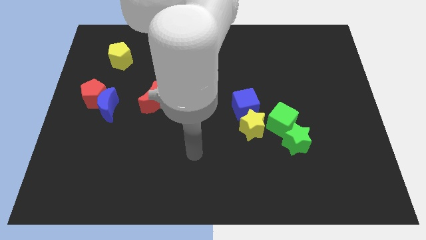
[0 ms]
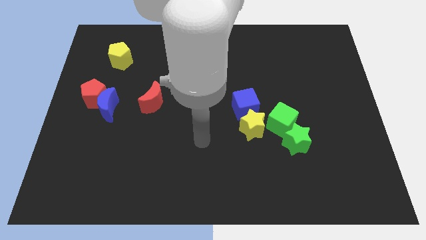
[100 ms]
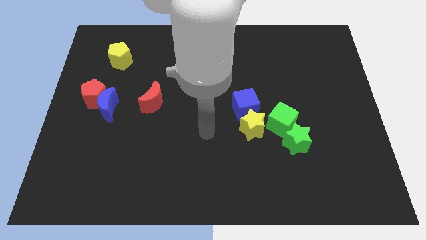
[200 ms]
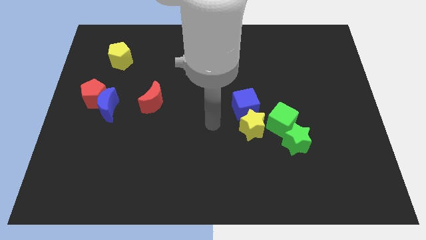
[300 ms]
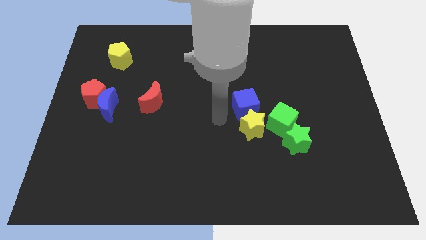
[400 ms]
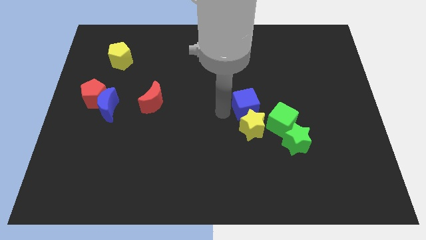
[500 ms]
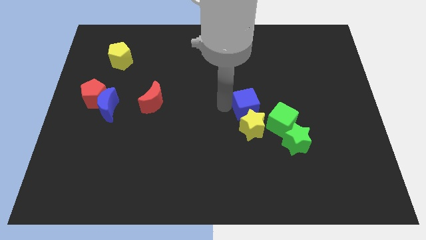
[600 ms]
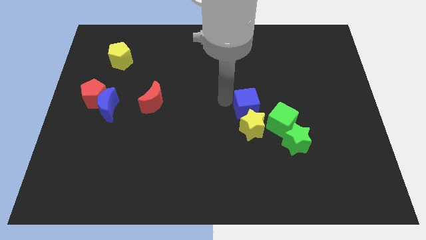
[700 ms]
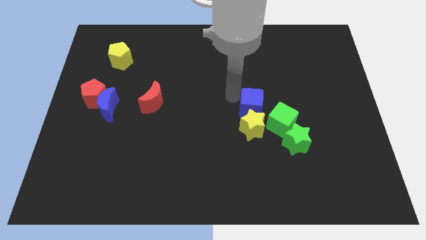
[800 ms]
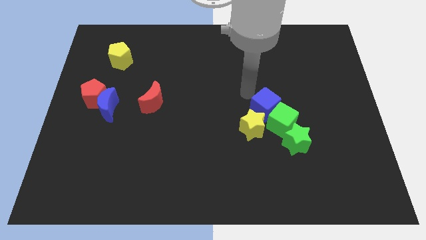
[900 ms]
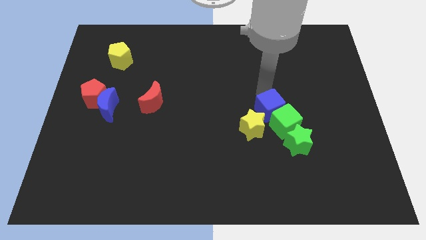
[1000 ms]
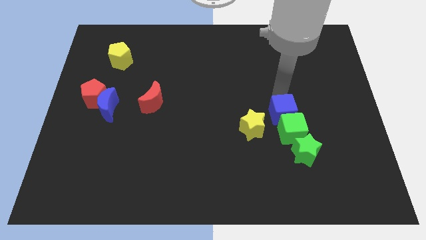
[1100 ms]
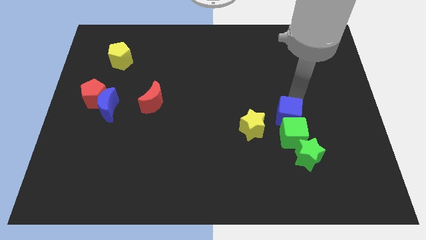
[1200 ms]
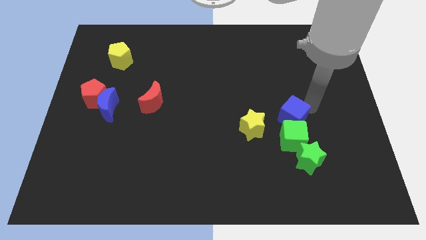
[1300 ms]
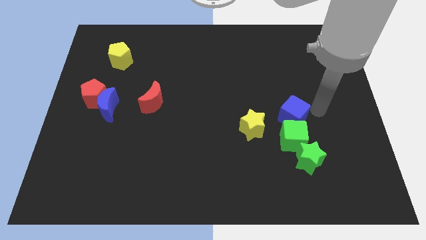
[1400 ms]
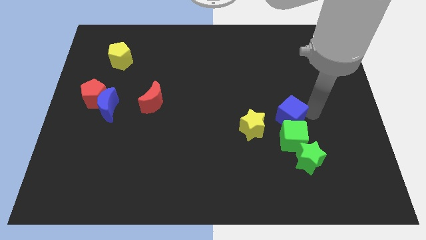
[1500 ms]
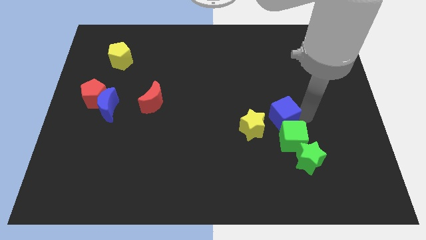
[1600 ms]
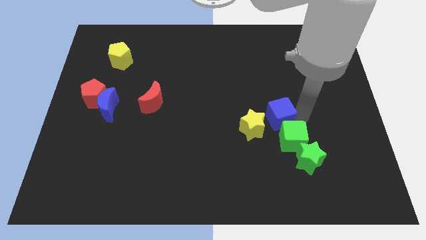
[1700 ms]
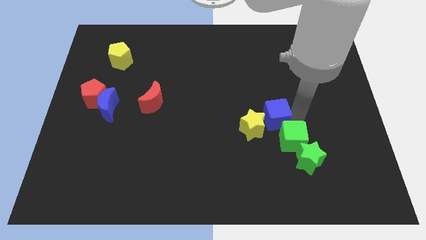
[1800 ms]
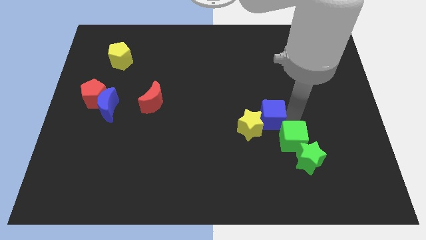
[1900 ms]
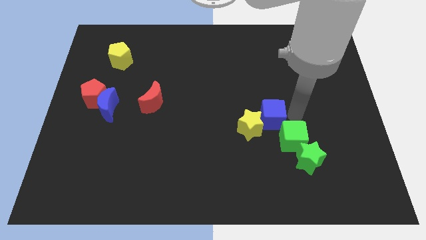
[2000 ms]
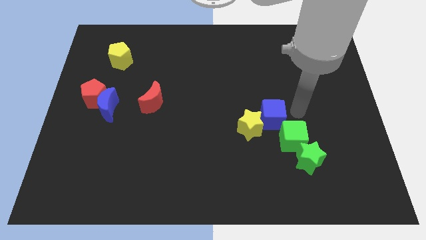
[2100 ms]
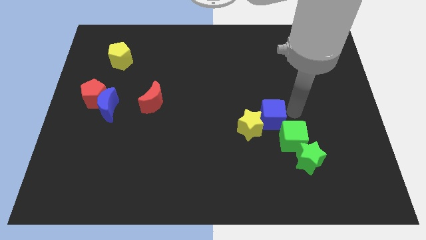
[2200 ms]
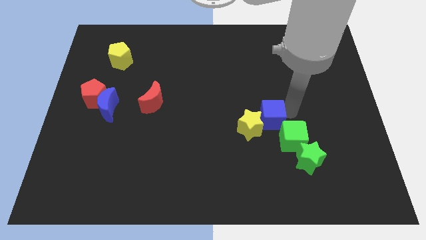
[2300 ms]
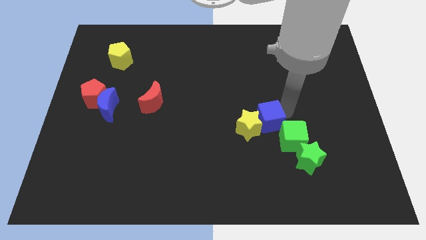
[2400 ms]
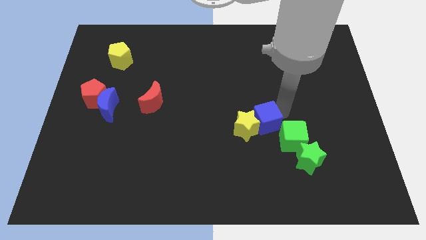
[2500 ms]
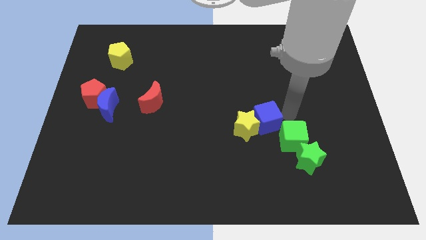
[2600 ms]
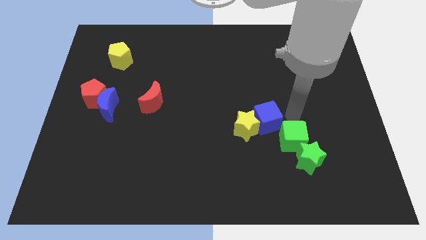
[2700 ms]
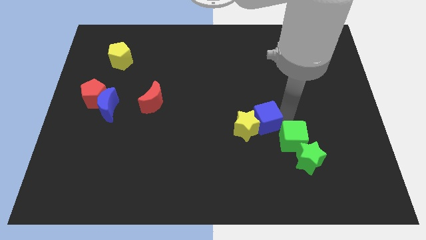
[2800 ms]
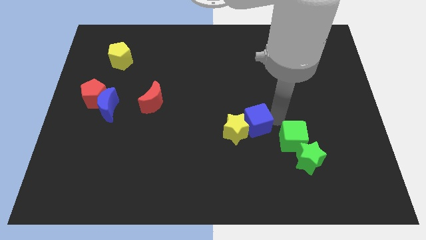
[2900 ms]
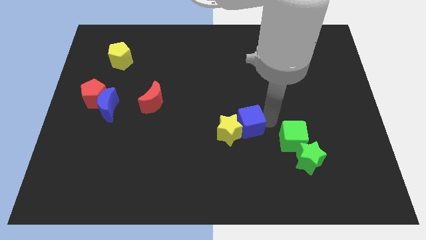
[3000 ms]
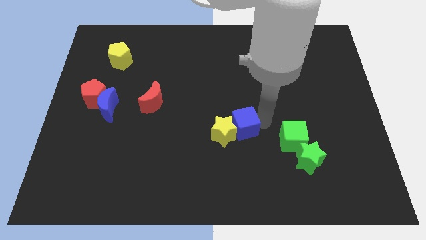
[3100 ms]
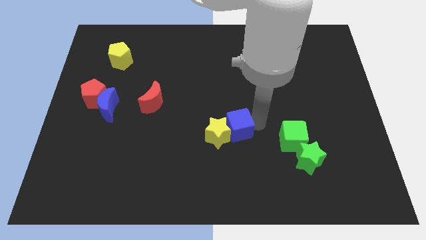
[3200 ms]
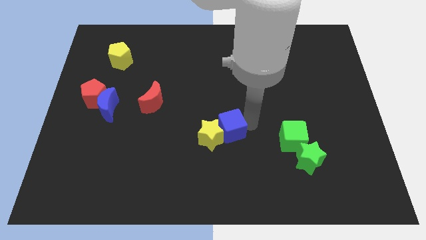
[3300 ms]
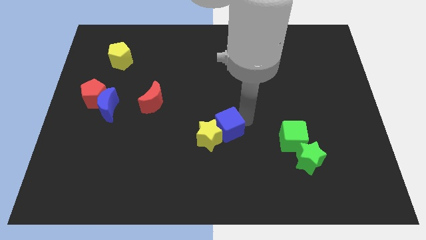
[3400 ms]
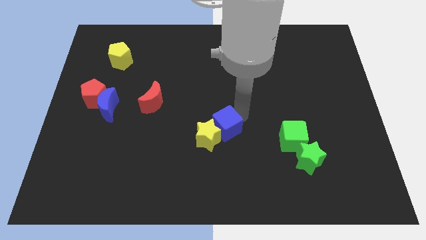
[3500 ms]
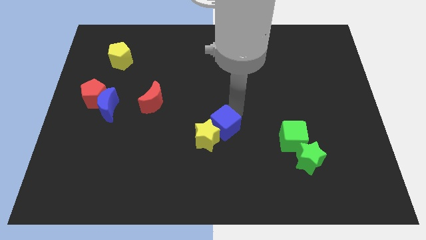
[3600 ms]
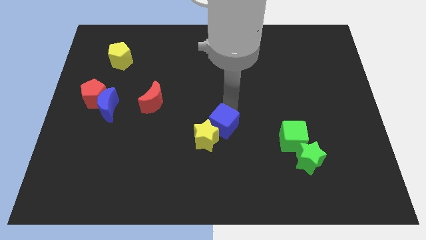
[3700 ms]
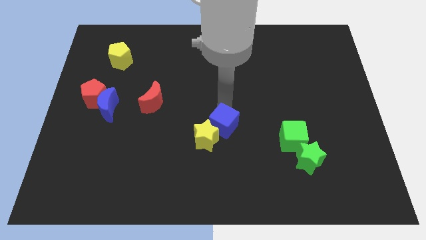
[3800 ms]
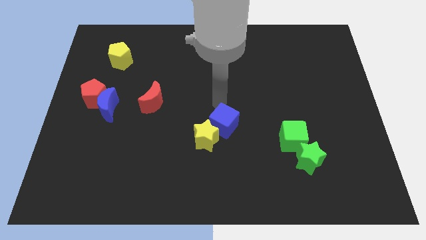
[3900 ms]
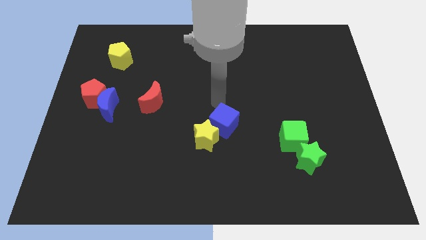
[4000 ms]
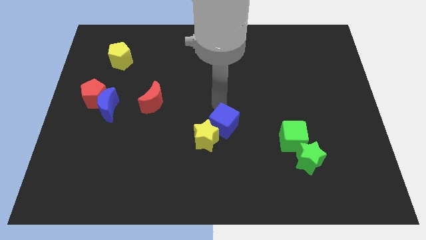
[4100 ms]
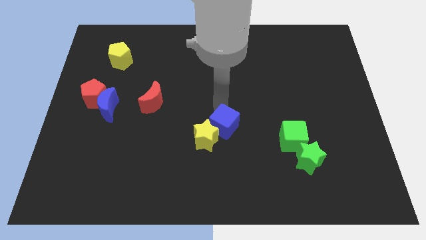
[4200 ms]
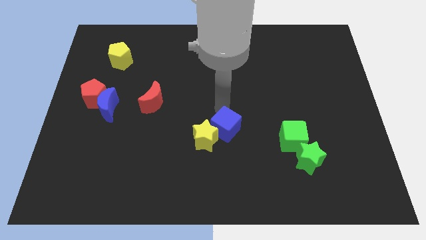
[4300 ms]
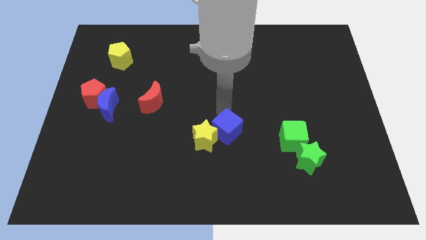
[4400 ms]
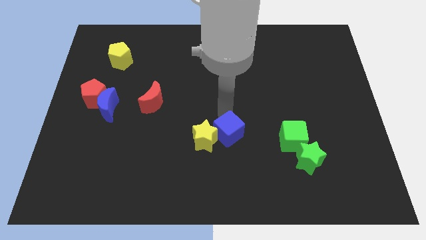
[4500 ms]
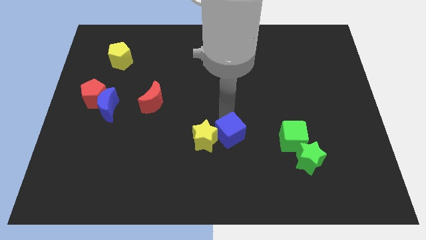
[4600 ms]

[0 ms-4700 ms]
move the blue cube downwards a bit

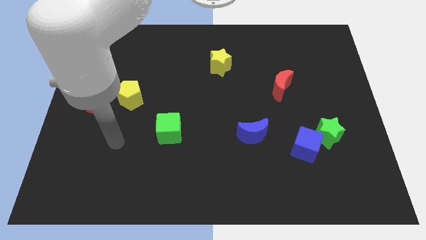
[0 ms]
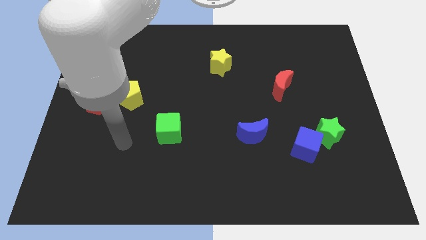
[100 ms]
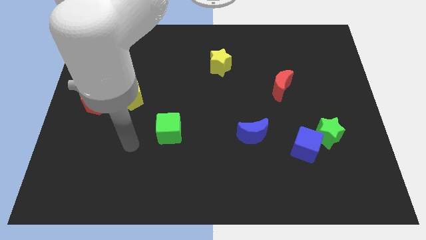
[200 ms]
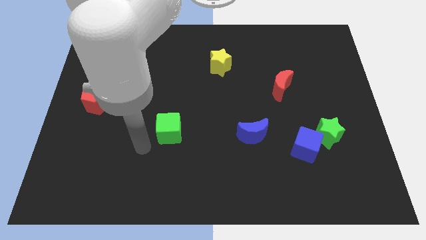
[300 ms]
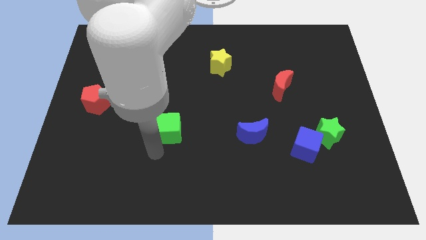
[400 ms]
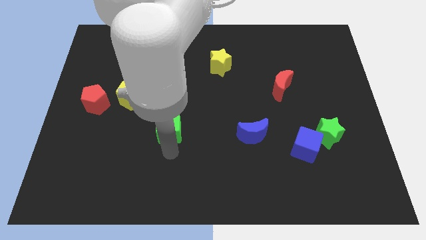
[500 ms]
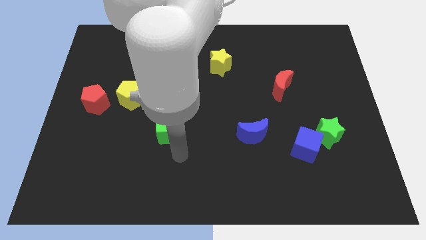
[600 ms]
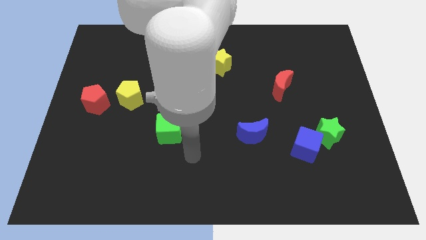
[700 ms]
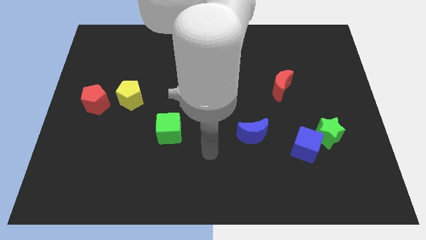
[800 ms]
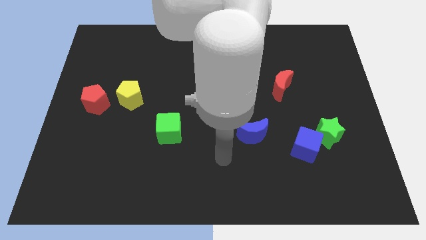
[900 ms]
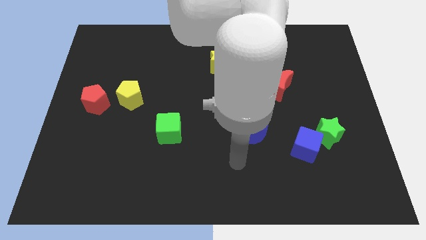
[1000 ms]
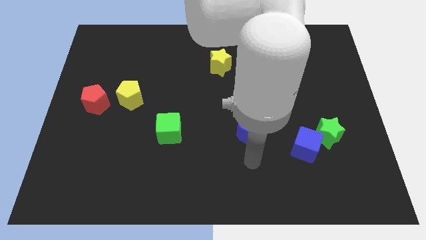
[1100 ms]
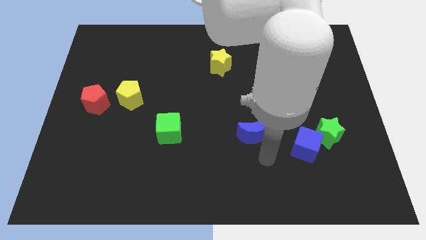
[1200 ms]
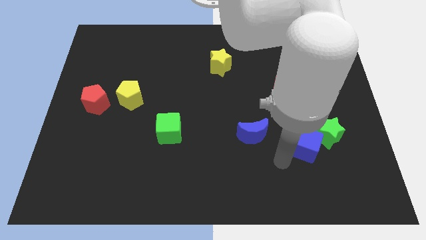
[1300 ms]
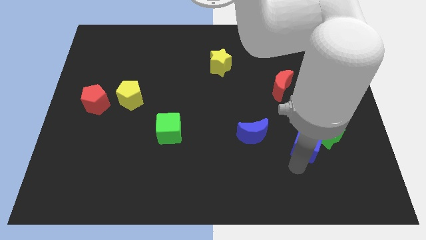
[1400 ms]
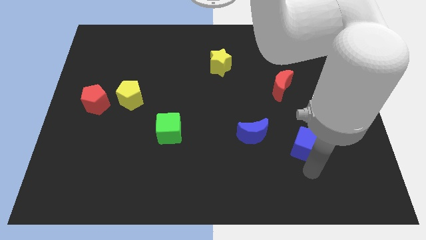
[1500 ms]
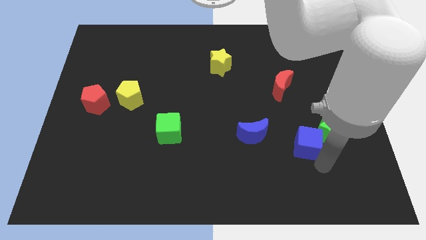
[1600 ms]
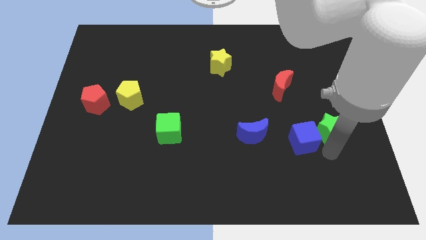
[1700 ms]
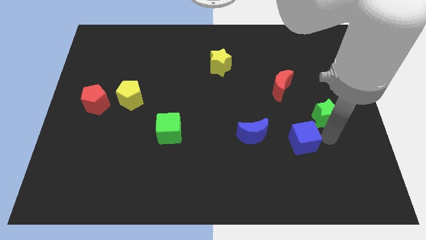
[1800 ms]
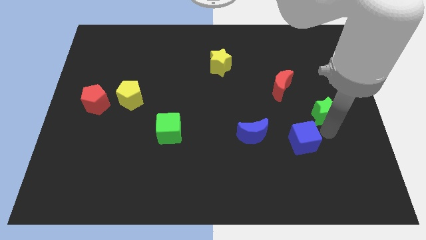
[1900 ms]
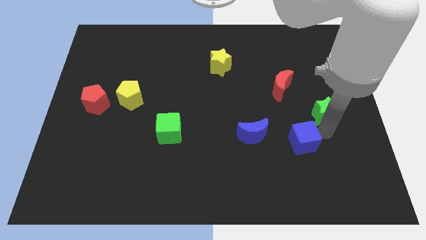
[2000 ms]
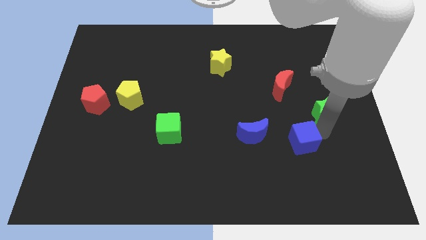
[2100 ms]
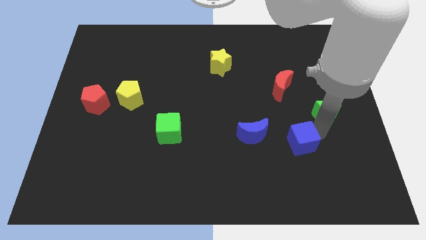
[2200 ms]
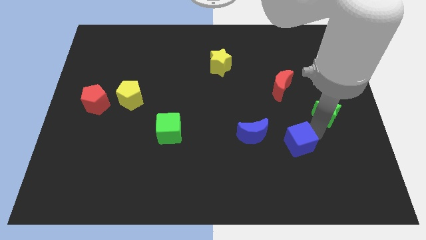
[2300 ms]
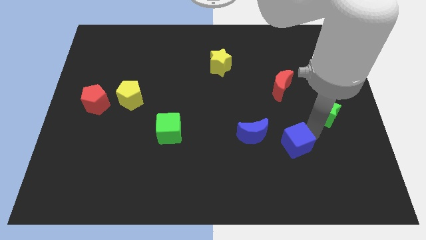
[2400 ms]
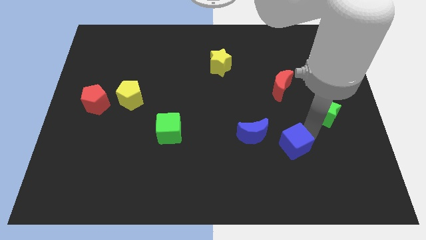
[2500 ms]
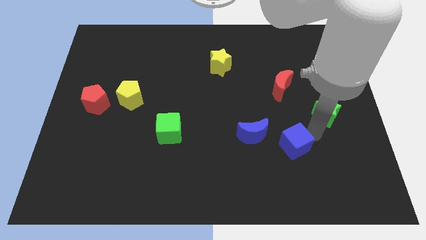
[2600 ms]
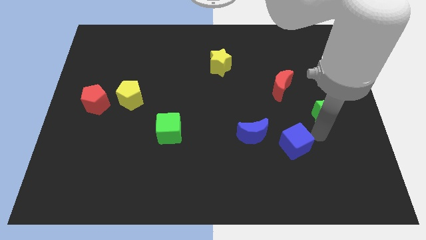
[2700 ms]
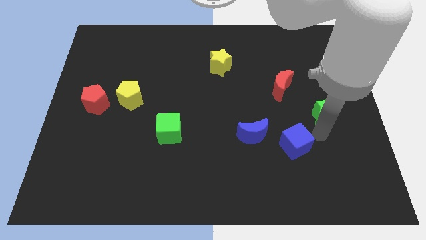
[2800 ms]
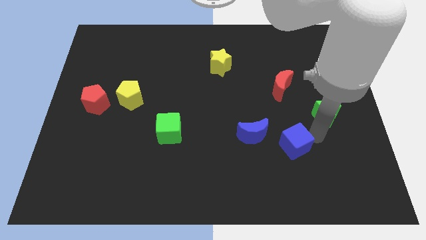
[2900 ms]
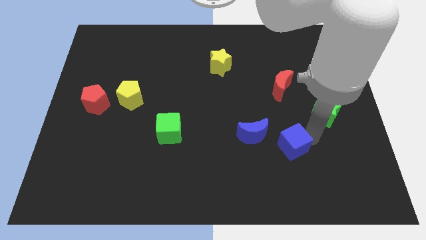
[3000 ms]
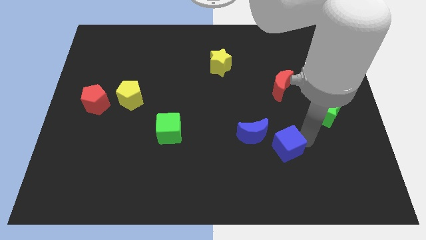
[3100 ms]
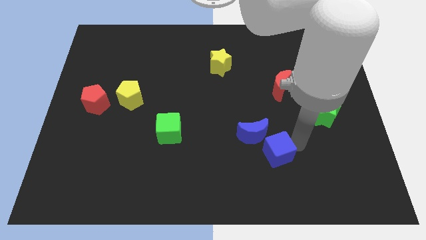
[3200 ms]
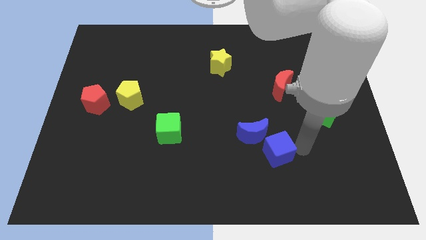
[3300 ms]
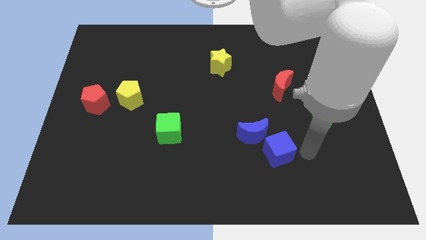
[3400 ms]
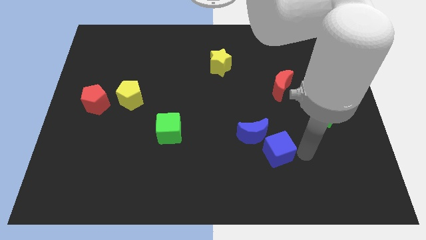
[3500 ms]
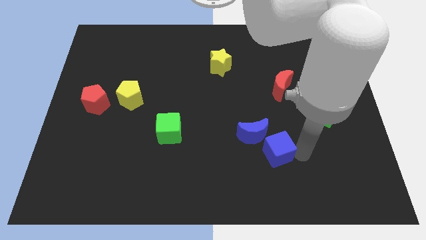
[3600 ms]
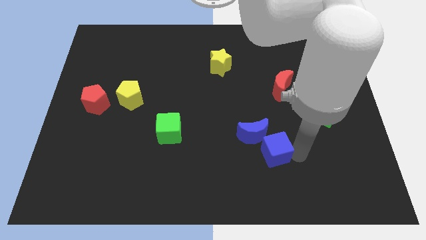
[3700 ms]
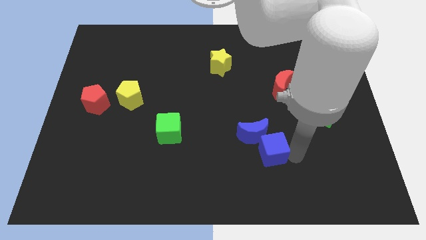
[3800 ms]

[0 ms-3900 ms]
slightly move the blue cube left

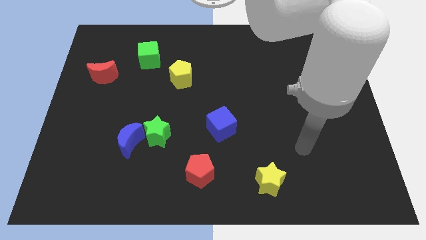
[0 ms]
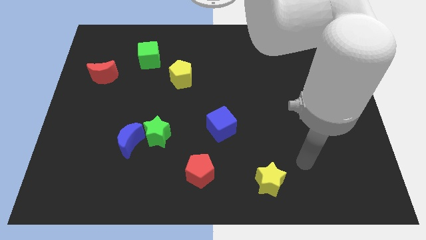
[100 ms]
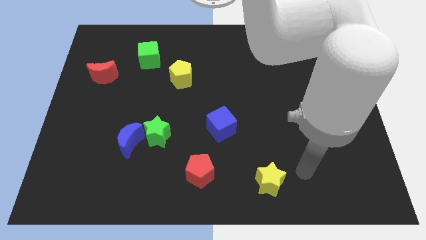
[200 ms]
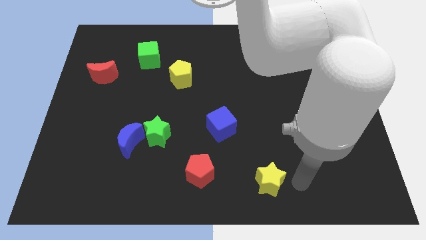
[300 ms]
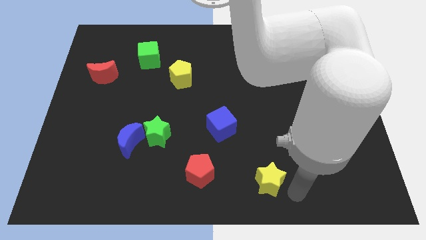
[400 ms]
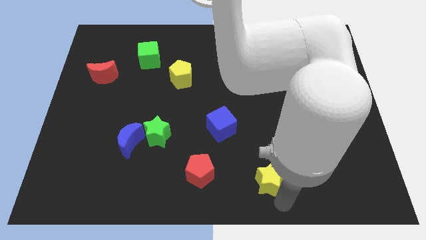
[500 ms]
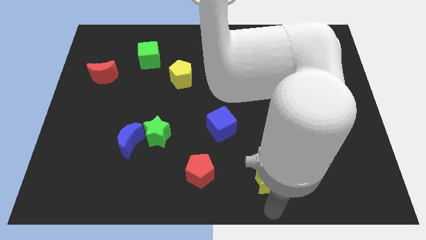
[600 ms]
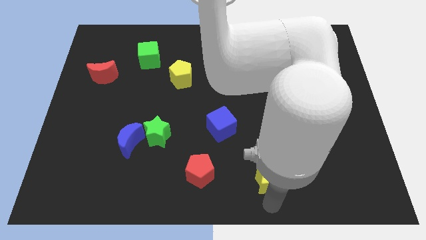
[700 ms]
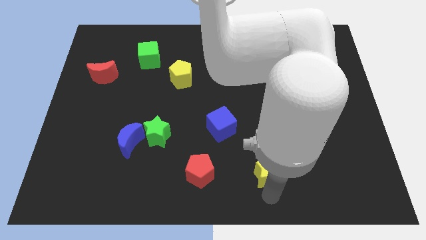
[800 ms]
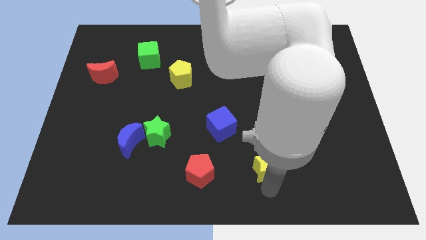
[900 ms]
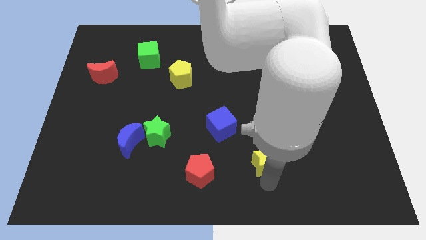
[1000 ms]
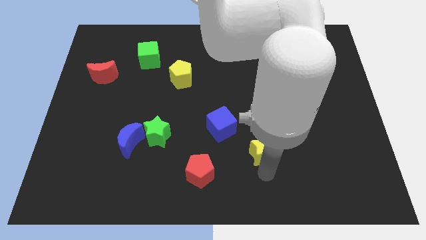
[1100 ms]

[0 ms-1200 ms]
move the yellow star upwards a little
